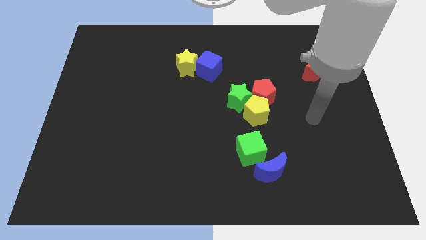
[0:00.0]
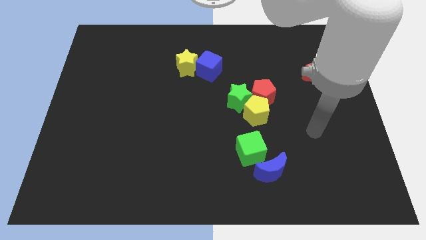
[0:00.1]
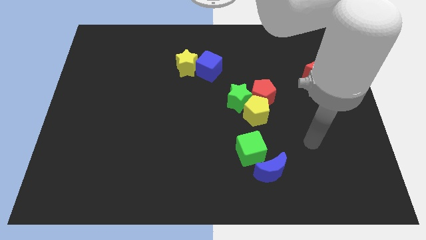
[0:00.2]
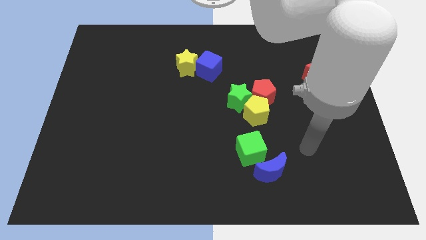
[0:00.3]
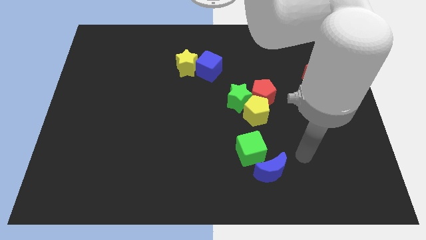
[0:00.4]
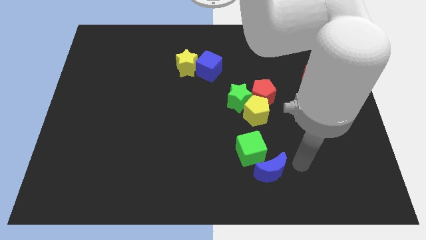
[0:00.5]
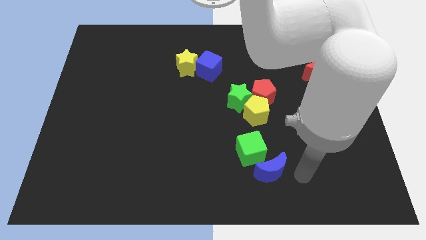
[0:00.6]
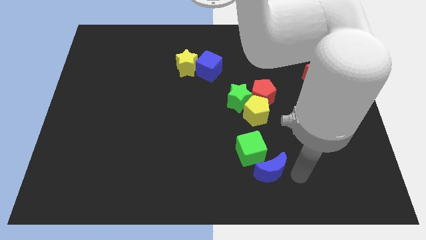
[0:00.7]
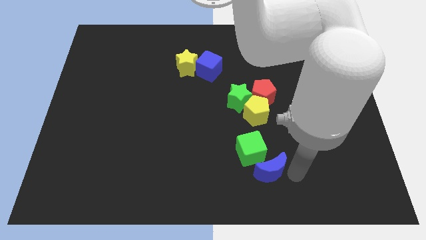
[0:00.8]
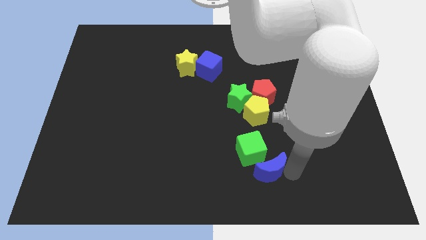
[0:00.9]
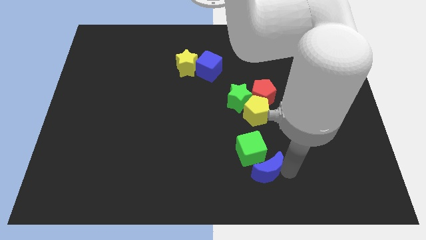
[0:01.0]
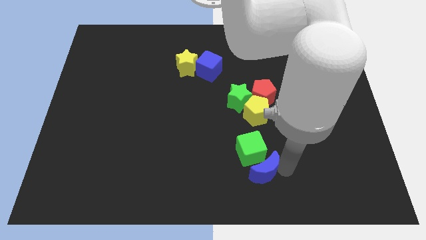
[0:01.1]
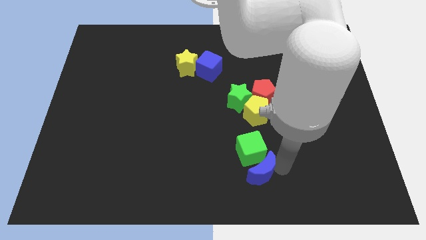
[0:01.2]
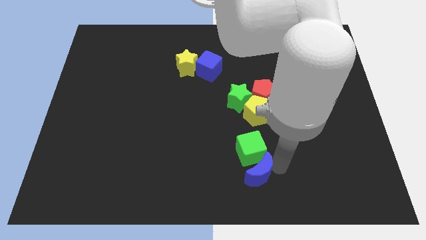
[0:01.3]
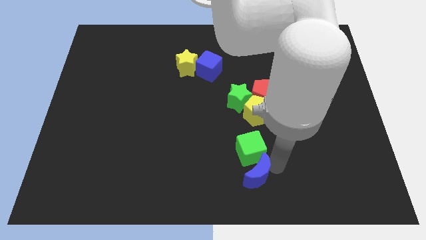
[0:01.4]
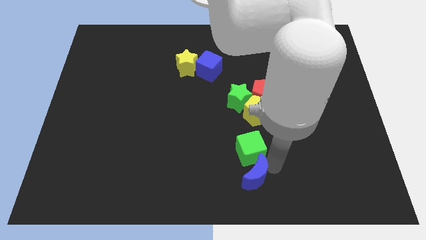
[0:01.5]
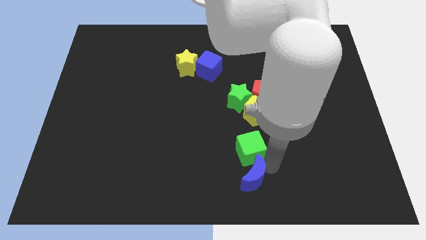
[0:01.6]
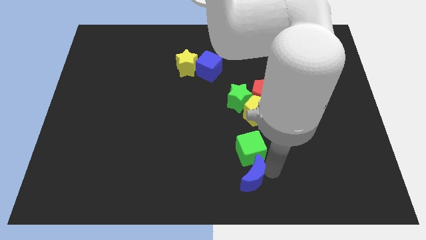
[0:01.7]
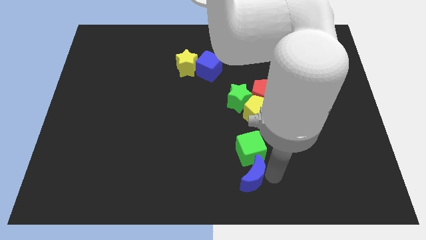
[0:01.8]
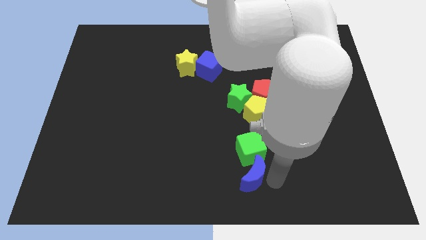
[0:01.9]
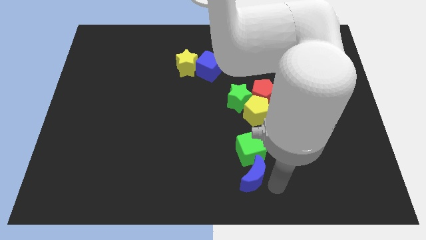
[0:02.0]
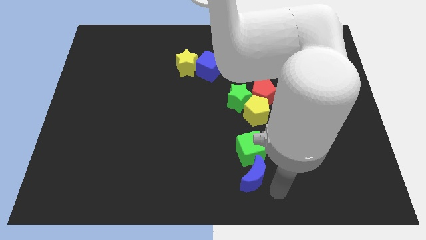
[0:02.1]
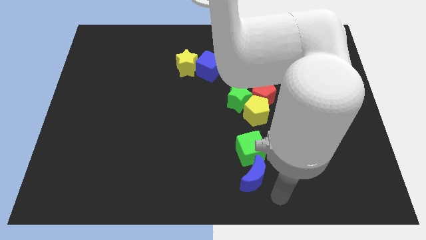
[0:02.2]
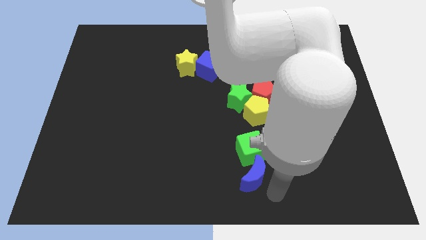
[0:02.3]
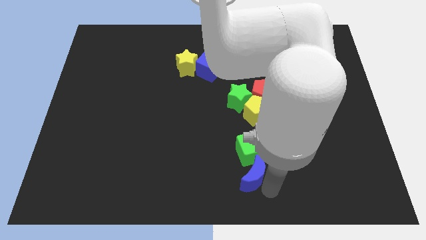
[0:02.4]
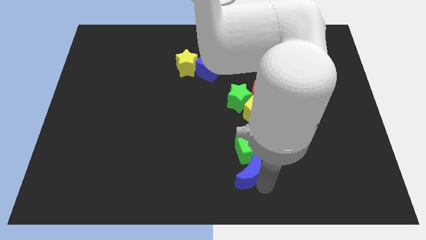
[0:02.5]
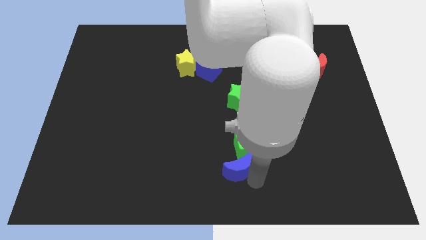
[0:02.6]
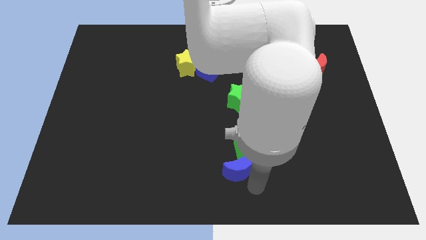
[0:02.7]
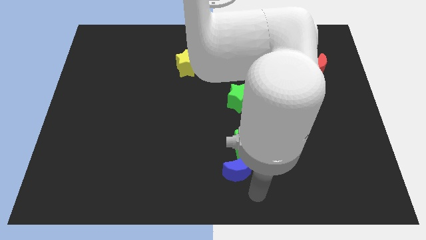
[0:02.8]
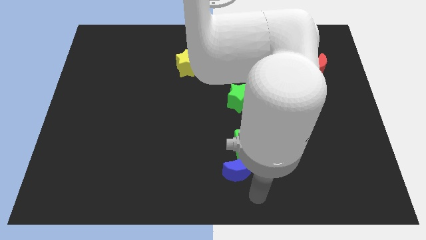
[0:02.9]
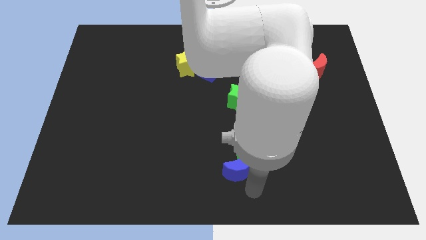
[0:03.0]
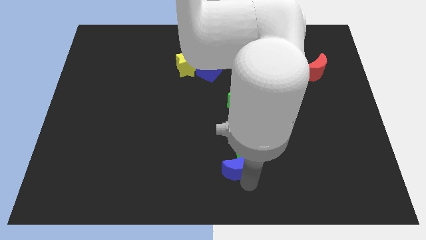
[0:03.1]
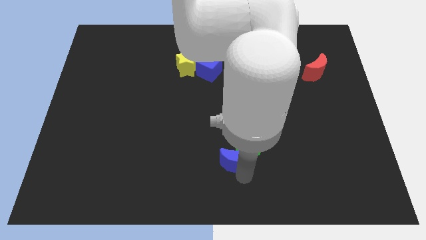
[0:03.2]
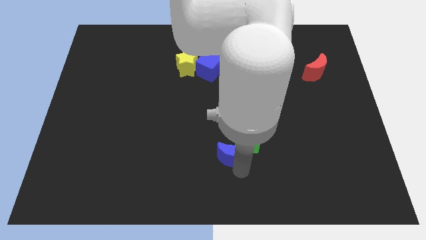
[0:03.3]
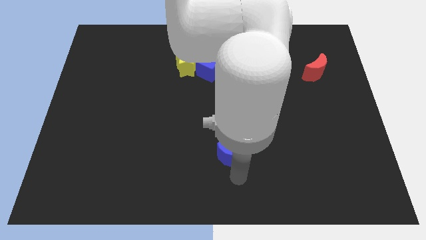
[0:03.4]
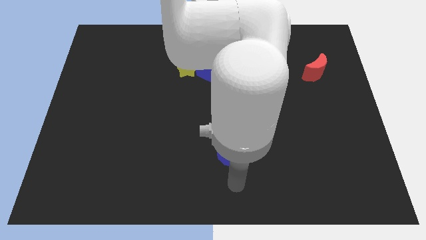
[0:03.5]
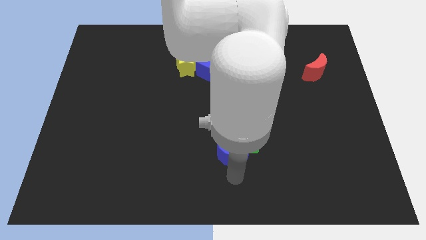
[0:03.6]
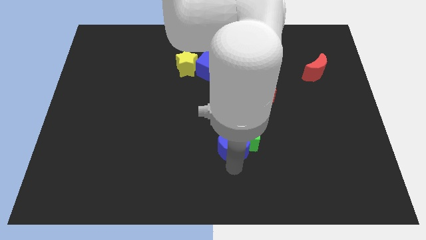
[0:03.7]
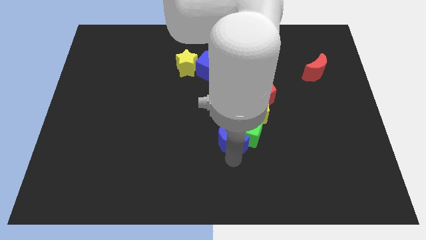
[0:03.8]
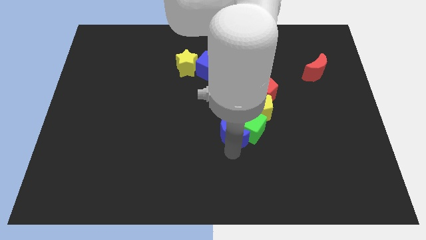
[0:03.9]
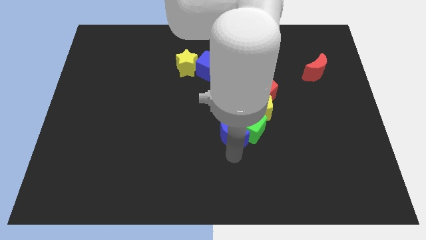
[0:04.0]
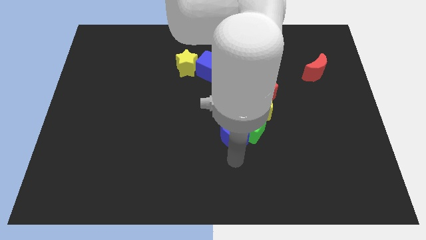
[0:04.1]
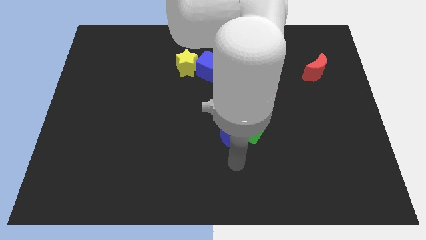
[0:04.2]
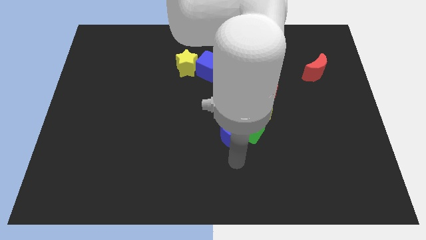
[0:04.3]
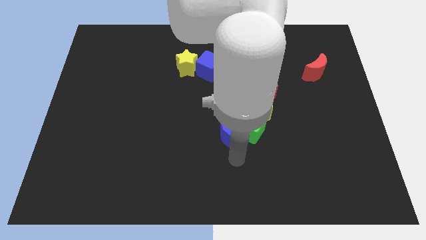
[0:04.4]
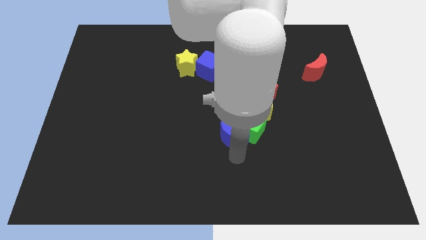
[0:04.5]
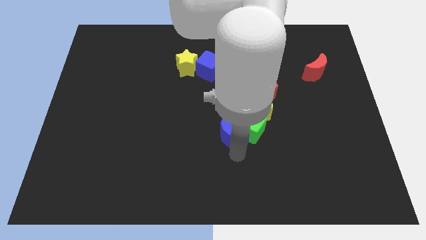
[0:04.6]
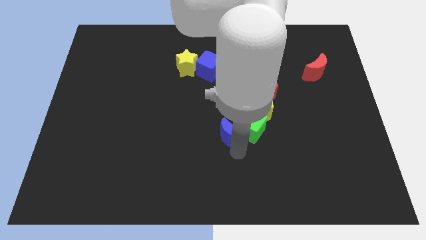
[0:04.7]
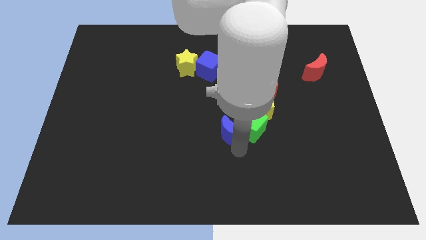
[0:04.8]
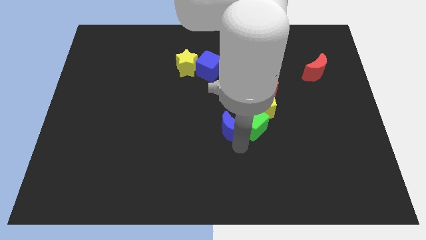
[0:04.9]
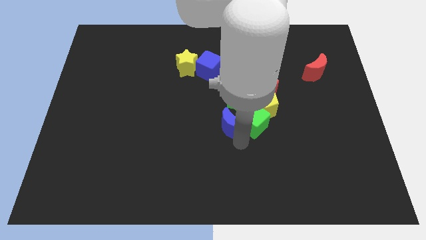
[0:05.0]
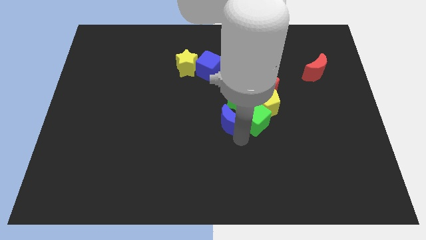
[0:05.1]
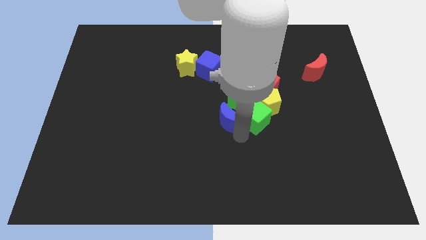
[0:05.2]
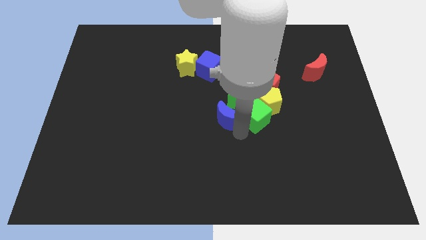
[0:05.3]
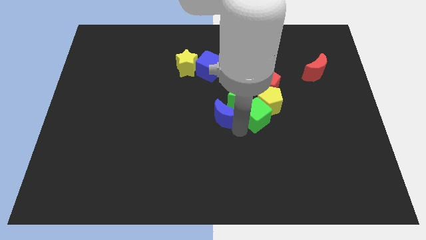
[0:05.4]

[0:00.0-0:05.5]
move the blue moon next to the green star

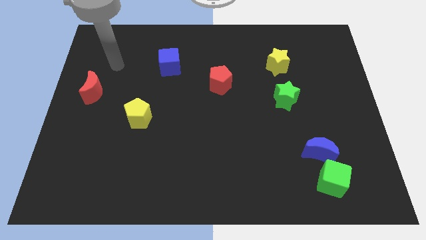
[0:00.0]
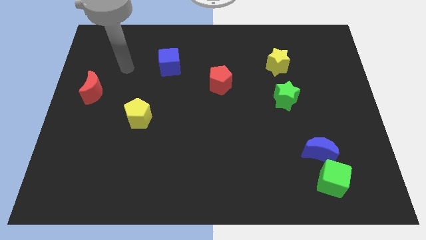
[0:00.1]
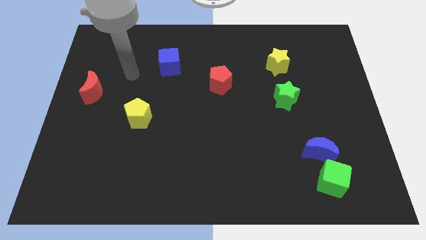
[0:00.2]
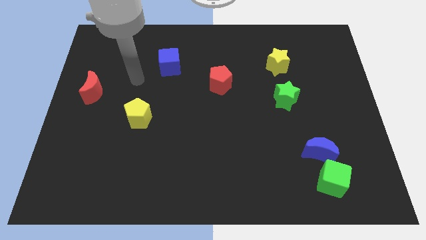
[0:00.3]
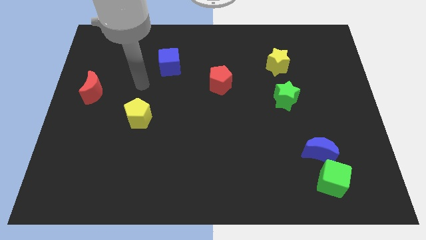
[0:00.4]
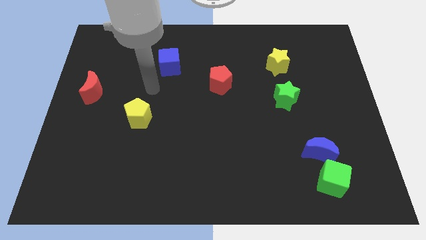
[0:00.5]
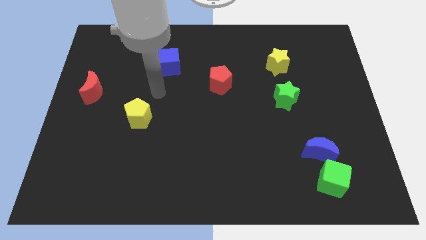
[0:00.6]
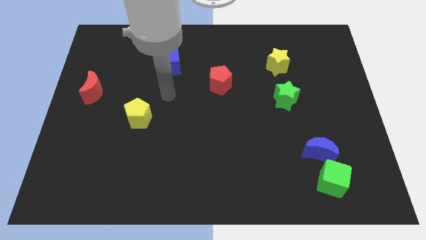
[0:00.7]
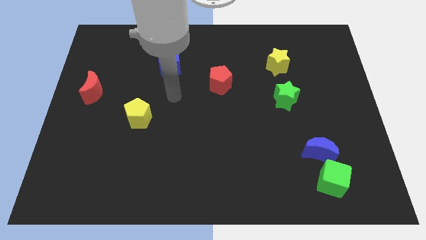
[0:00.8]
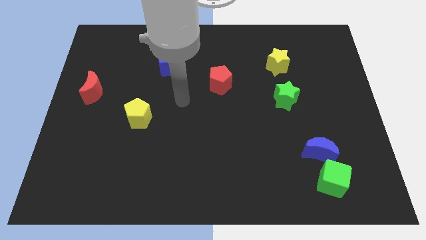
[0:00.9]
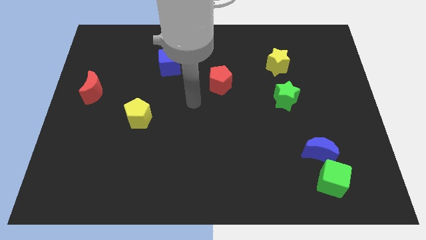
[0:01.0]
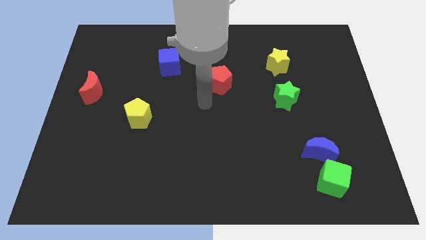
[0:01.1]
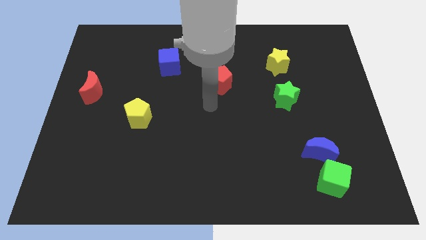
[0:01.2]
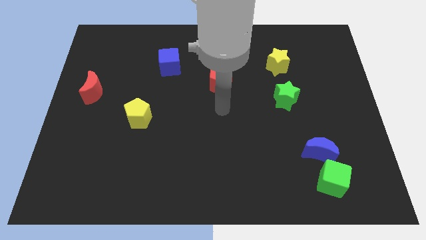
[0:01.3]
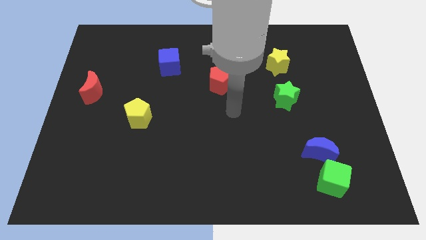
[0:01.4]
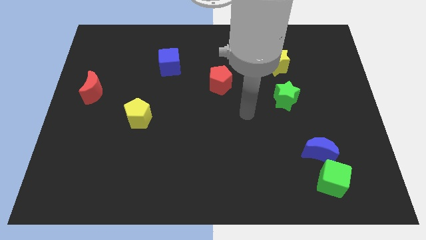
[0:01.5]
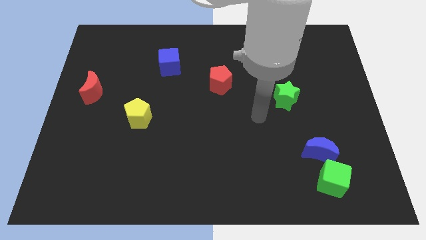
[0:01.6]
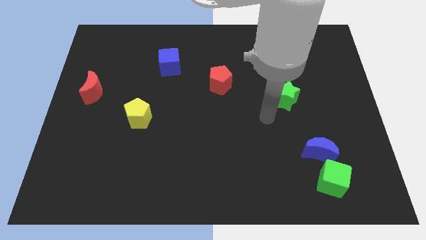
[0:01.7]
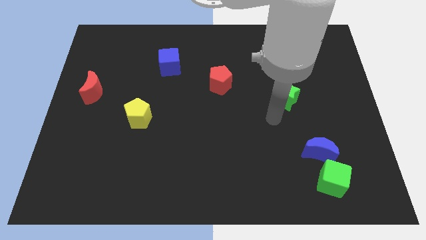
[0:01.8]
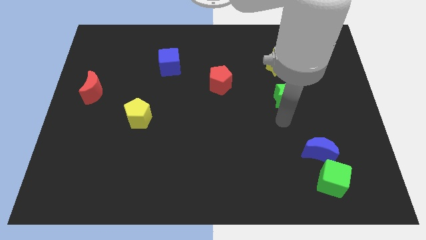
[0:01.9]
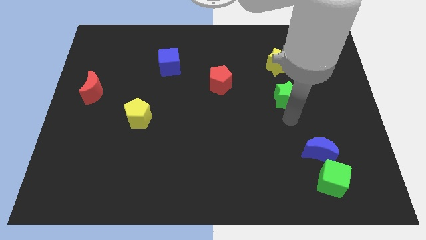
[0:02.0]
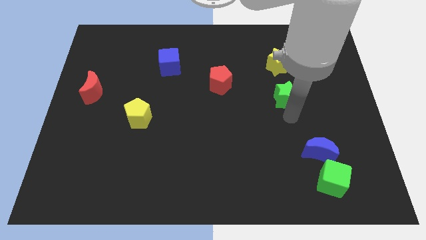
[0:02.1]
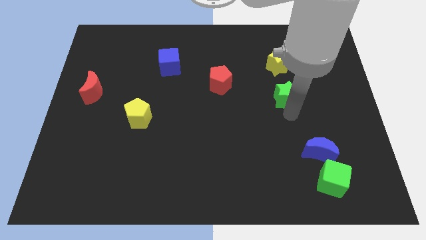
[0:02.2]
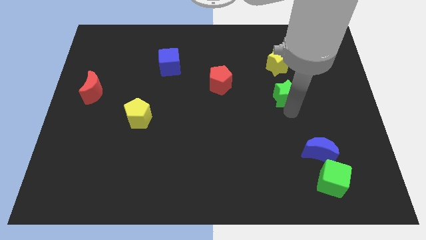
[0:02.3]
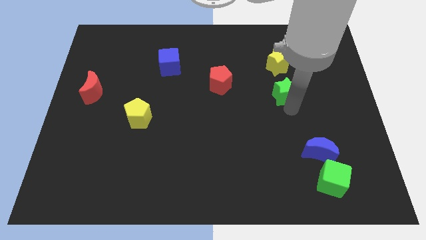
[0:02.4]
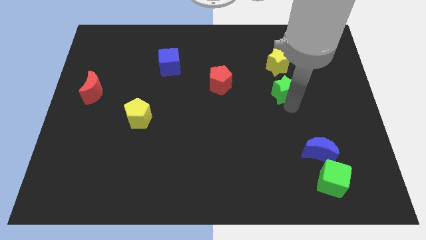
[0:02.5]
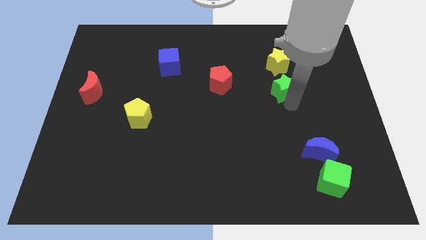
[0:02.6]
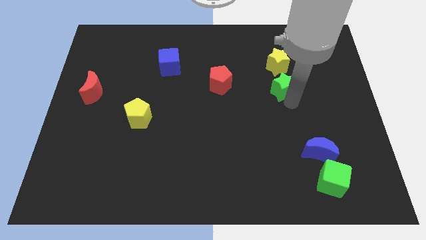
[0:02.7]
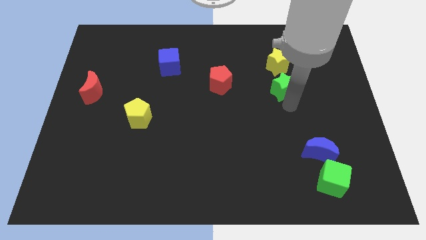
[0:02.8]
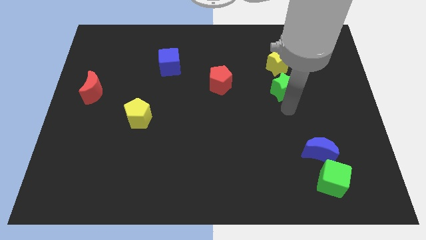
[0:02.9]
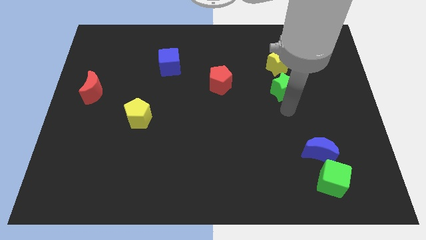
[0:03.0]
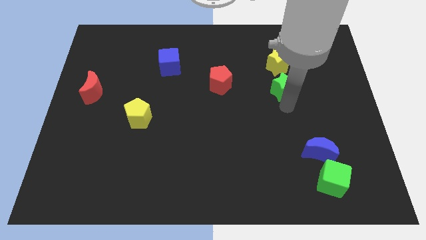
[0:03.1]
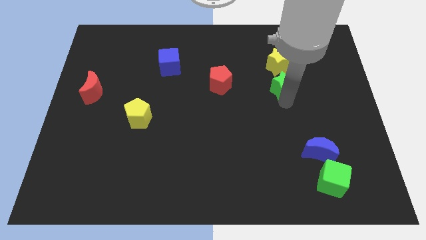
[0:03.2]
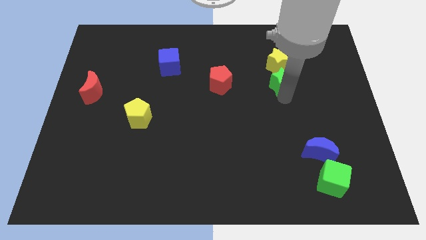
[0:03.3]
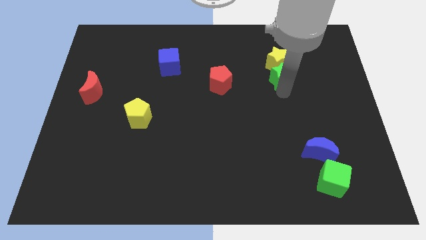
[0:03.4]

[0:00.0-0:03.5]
push the green star close to the yellow star
